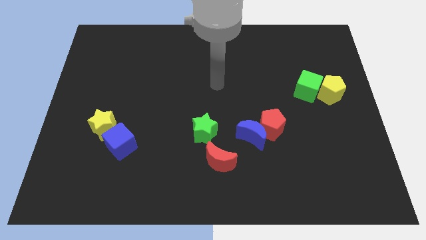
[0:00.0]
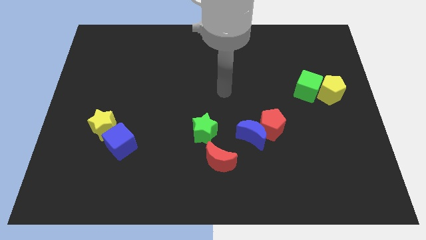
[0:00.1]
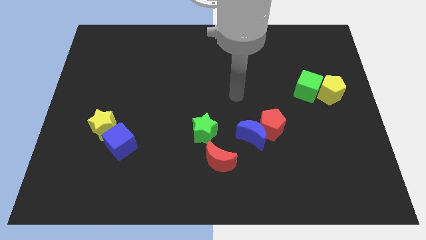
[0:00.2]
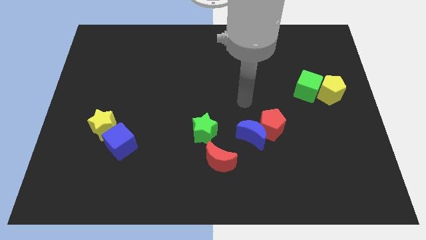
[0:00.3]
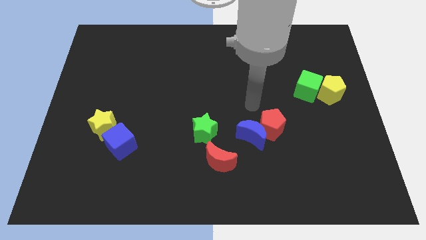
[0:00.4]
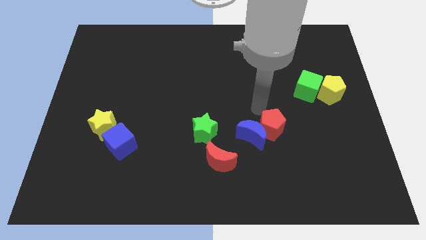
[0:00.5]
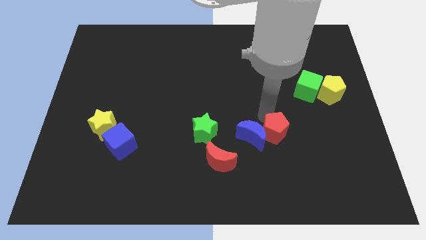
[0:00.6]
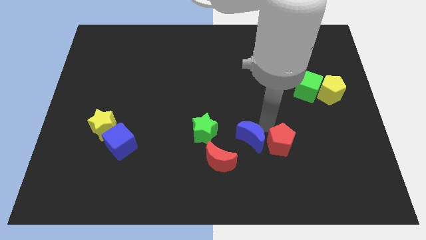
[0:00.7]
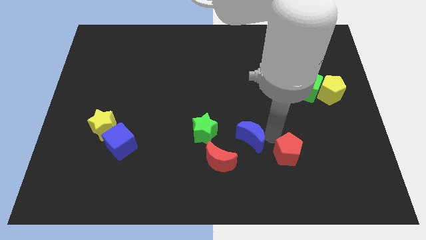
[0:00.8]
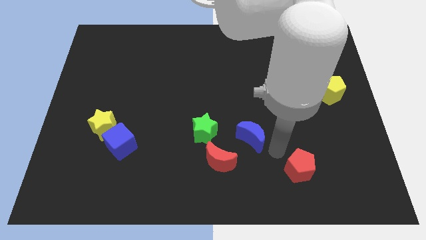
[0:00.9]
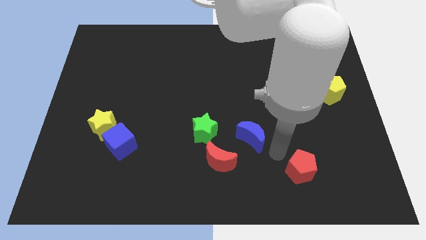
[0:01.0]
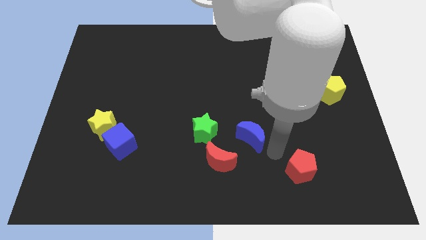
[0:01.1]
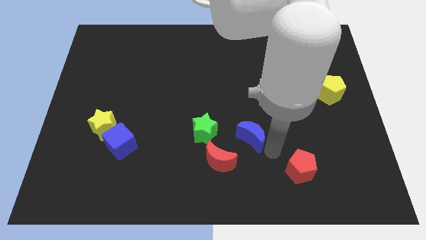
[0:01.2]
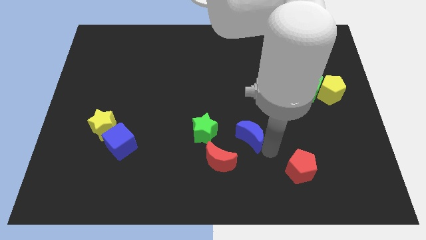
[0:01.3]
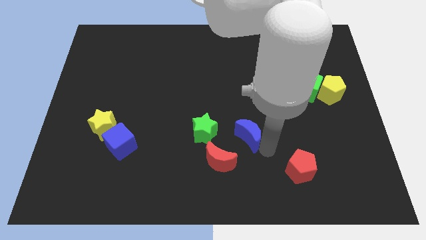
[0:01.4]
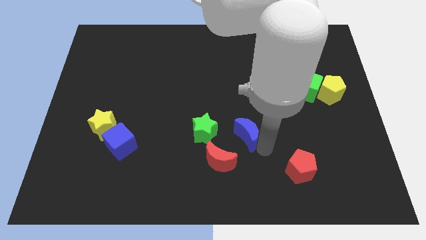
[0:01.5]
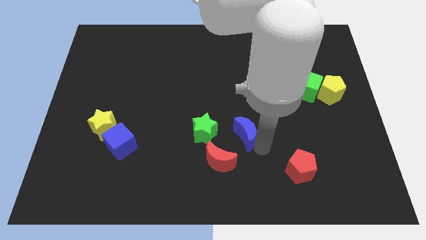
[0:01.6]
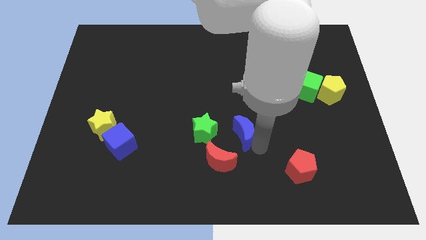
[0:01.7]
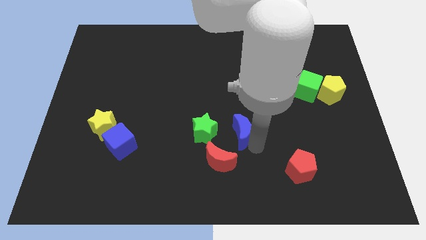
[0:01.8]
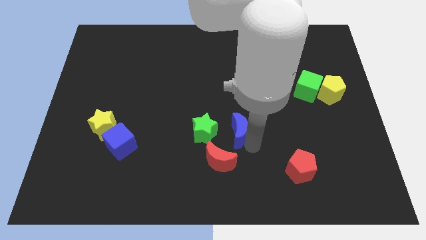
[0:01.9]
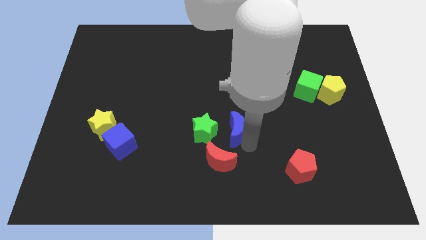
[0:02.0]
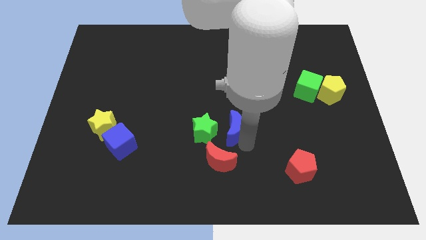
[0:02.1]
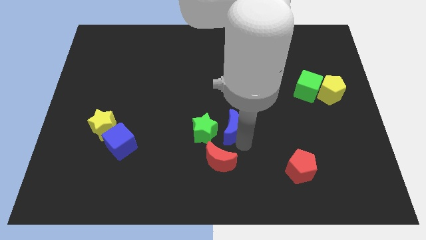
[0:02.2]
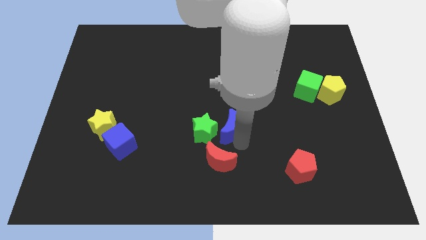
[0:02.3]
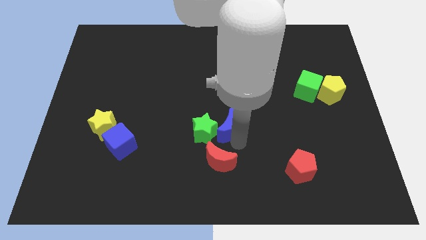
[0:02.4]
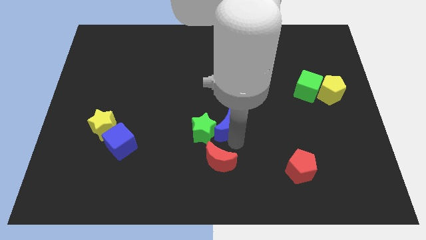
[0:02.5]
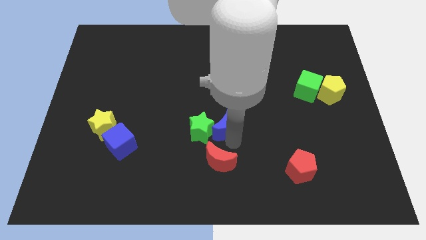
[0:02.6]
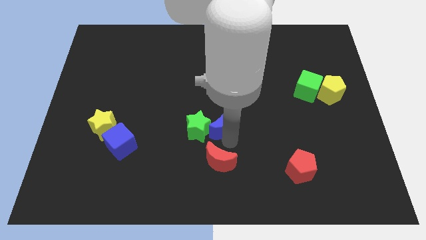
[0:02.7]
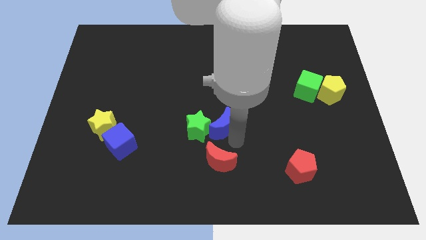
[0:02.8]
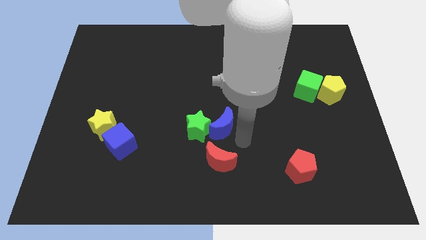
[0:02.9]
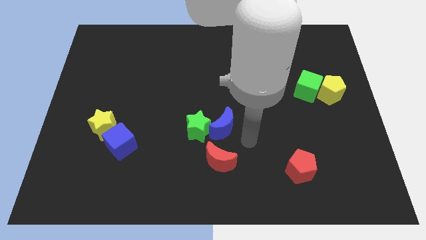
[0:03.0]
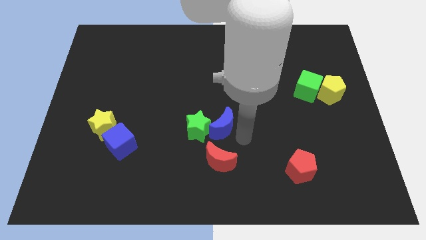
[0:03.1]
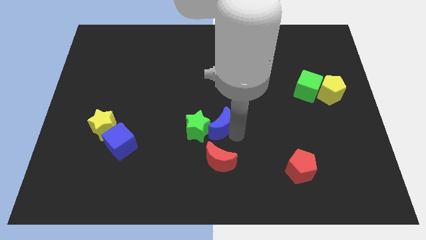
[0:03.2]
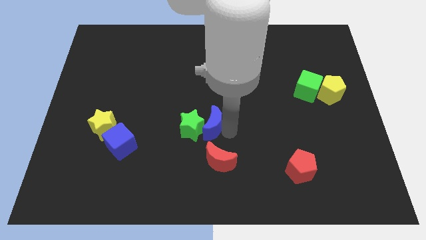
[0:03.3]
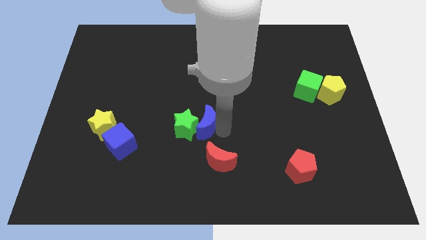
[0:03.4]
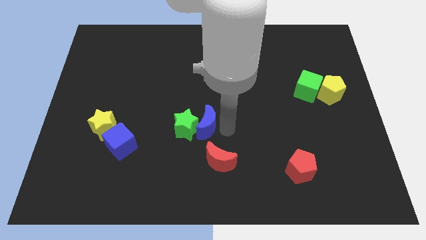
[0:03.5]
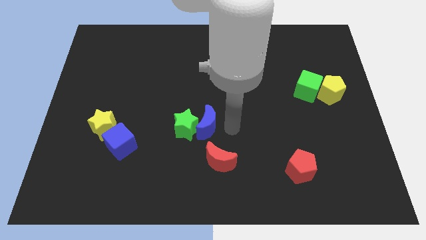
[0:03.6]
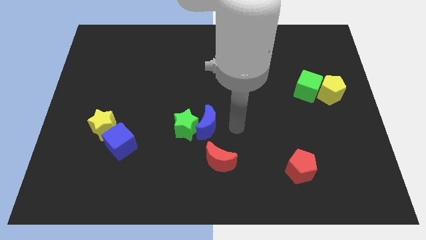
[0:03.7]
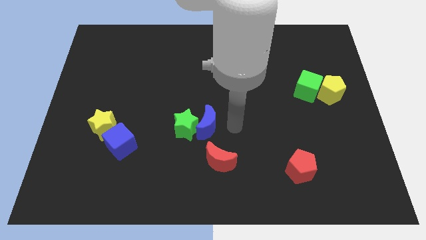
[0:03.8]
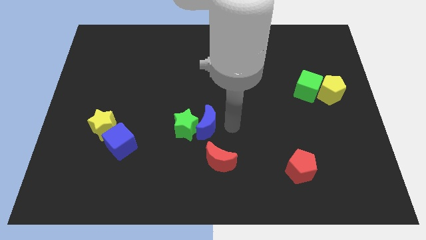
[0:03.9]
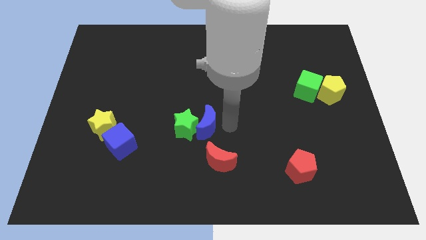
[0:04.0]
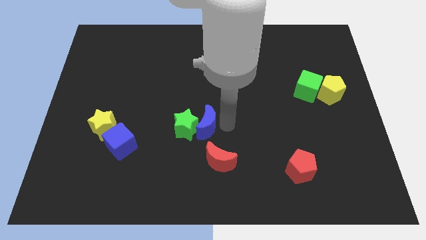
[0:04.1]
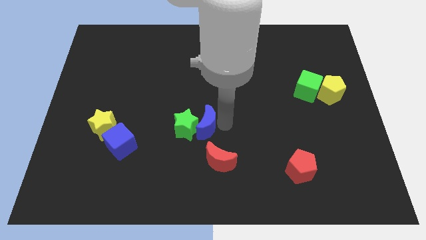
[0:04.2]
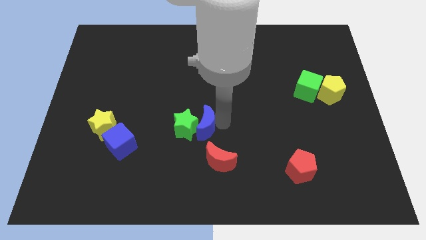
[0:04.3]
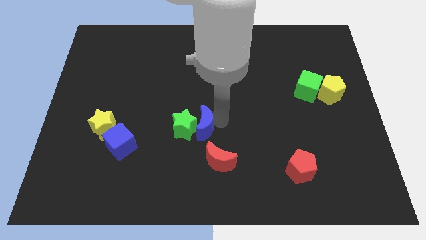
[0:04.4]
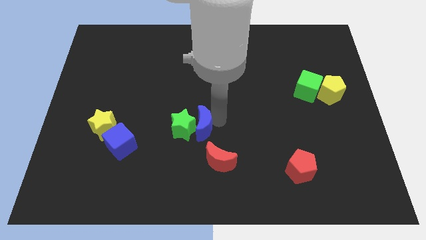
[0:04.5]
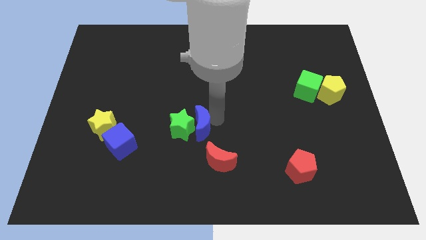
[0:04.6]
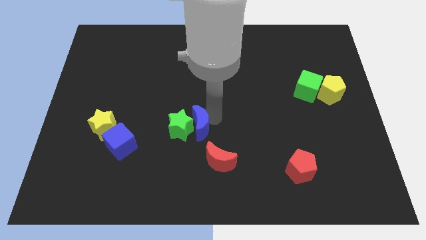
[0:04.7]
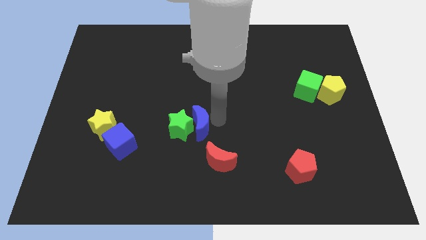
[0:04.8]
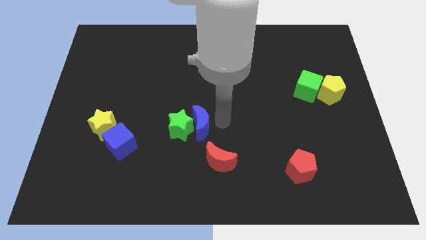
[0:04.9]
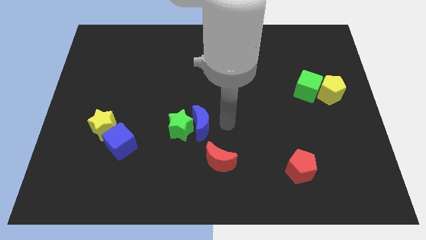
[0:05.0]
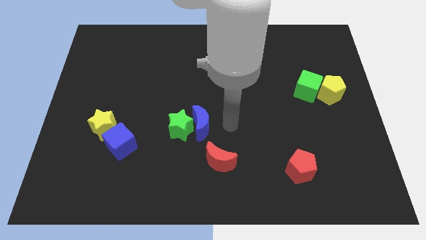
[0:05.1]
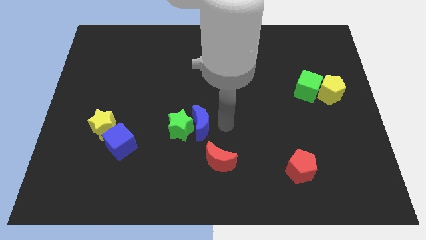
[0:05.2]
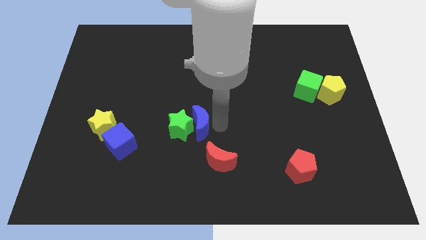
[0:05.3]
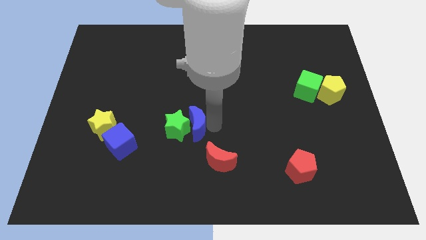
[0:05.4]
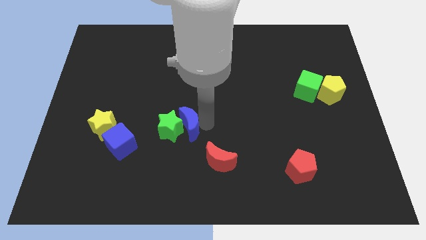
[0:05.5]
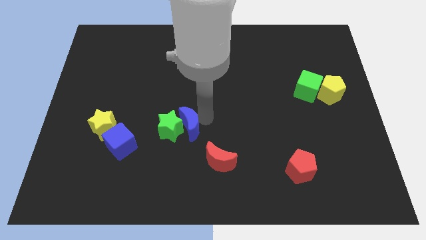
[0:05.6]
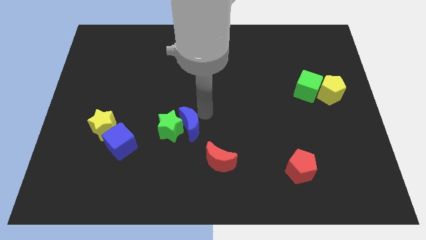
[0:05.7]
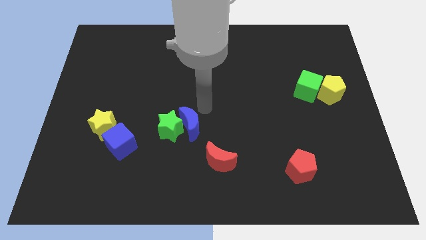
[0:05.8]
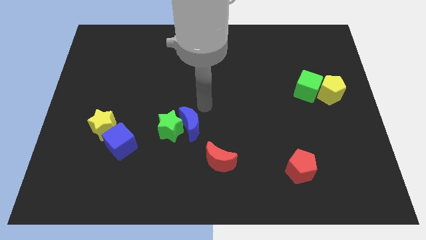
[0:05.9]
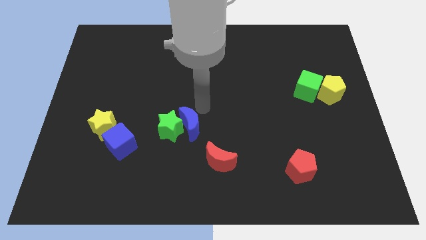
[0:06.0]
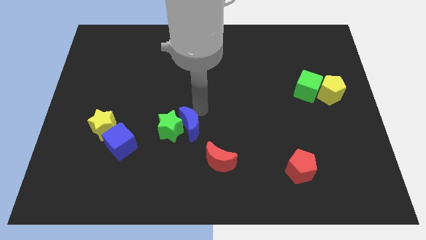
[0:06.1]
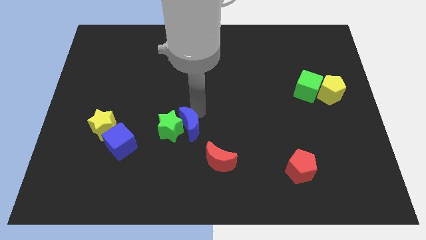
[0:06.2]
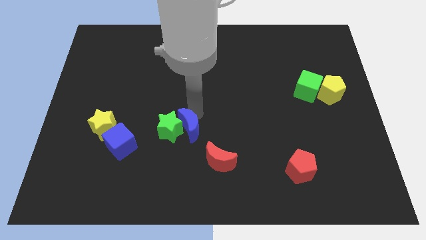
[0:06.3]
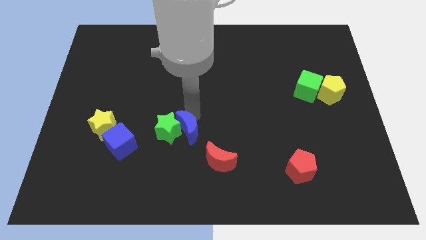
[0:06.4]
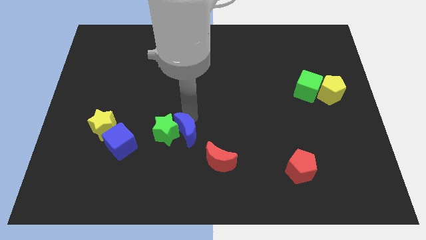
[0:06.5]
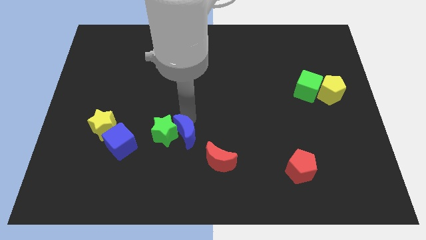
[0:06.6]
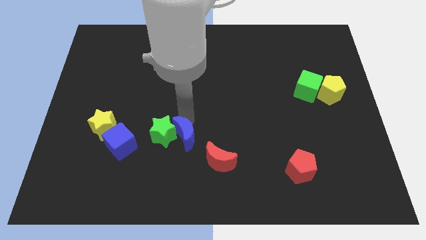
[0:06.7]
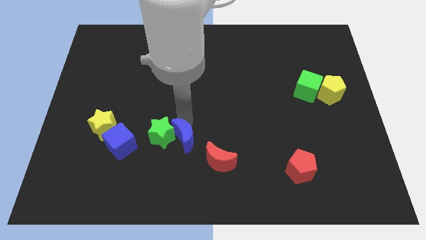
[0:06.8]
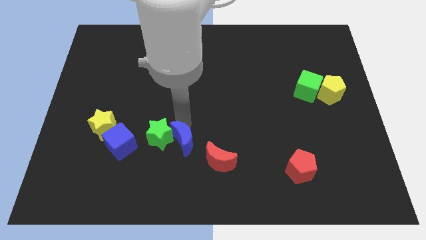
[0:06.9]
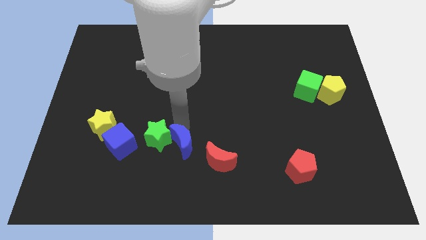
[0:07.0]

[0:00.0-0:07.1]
move the blue moon just left of the red moon
